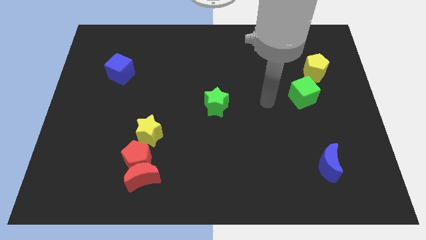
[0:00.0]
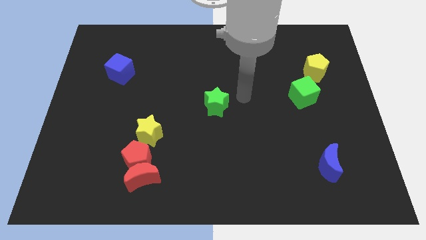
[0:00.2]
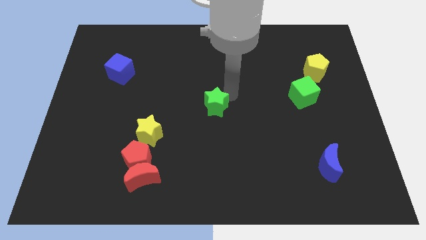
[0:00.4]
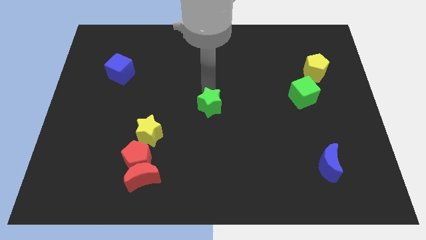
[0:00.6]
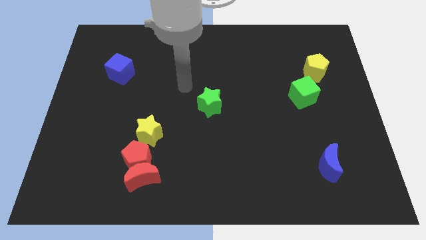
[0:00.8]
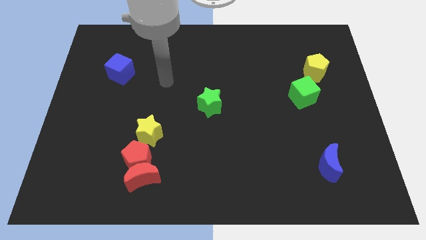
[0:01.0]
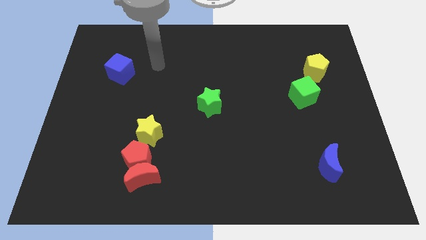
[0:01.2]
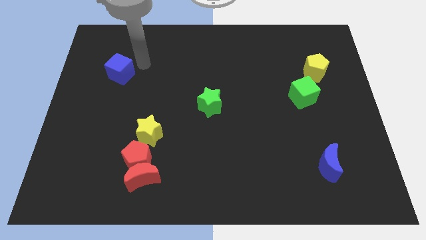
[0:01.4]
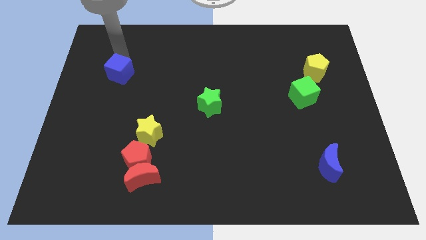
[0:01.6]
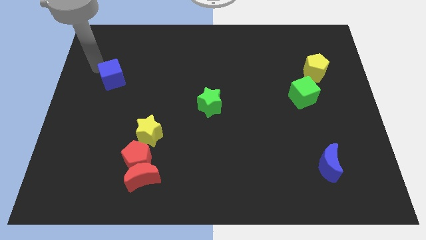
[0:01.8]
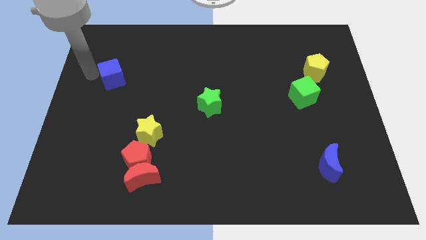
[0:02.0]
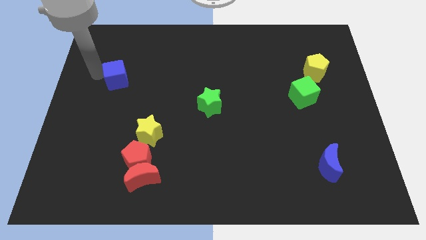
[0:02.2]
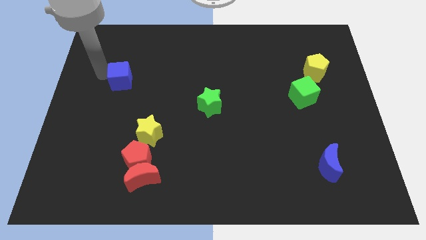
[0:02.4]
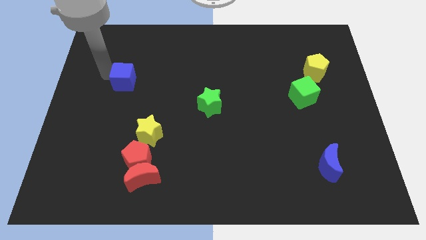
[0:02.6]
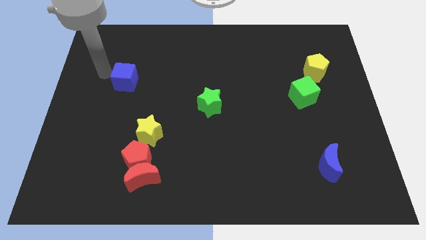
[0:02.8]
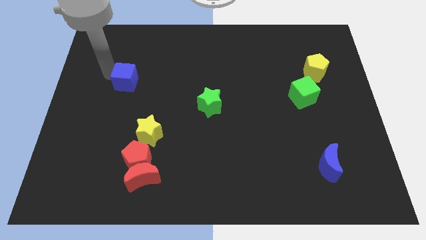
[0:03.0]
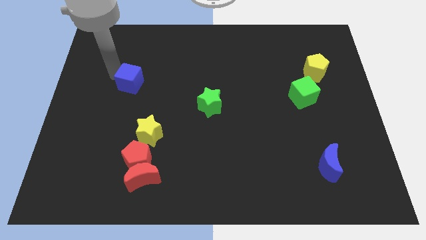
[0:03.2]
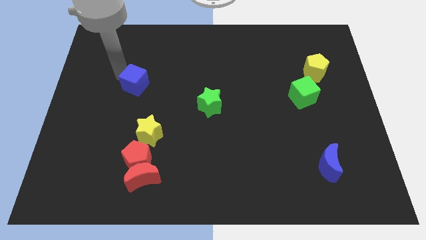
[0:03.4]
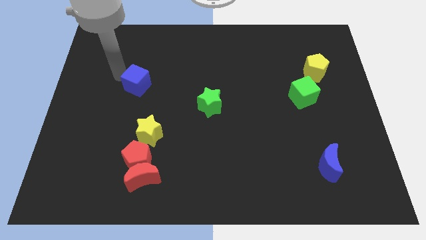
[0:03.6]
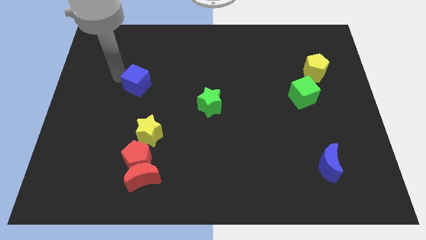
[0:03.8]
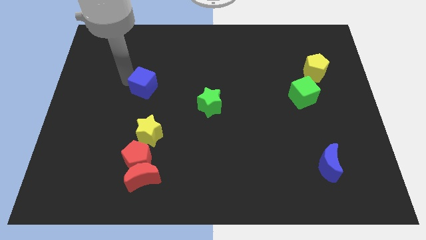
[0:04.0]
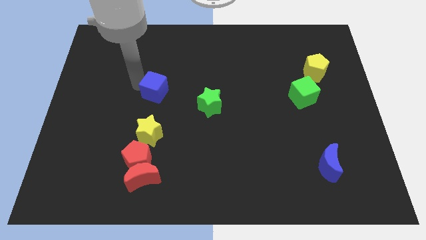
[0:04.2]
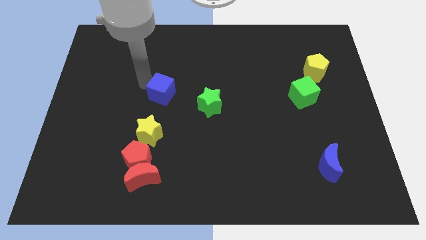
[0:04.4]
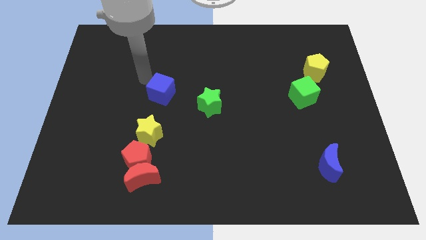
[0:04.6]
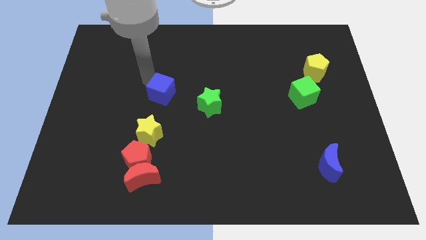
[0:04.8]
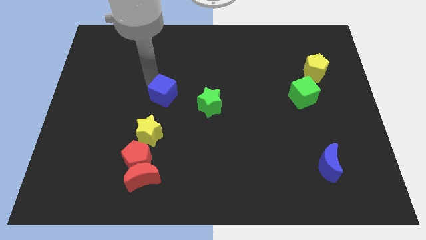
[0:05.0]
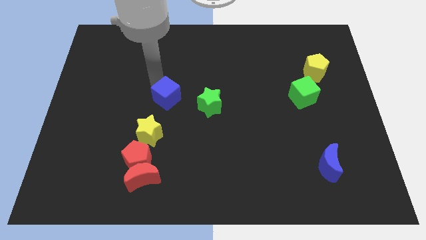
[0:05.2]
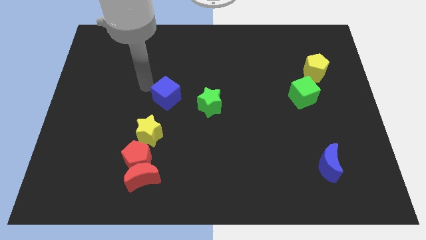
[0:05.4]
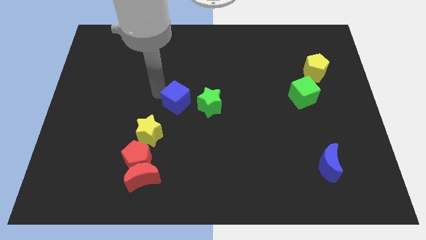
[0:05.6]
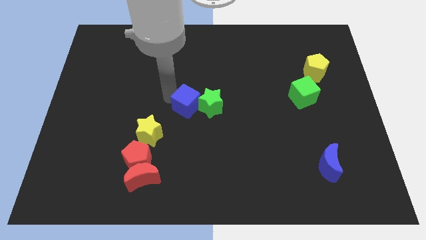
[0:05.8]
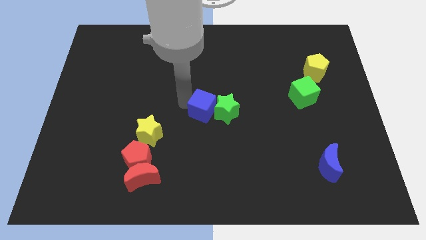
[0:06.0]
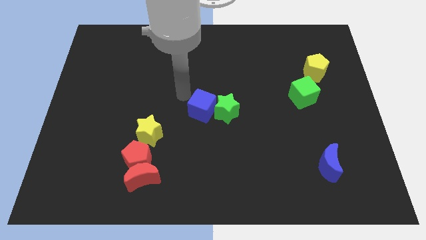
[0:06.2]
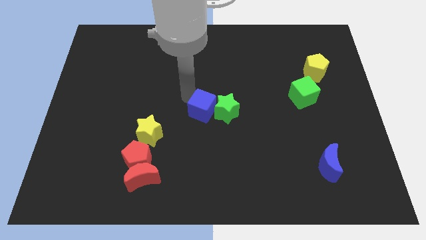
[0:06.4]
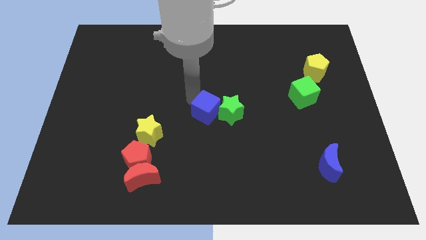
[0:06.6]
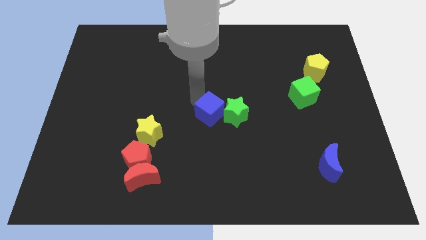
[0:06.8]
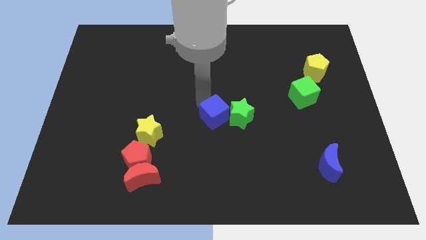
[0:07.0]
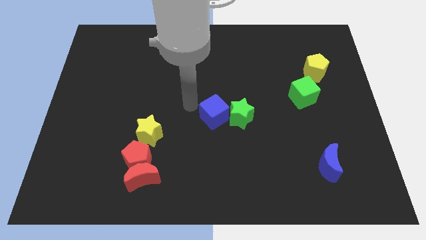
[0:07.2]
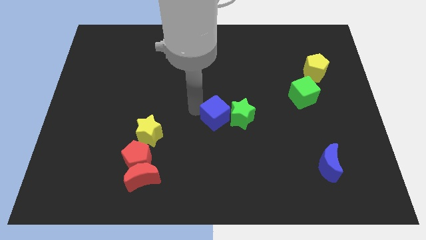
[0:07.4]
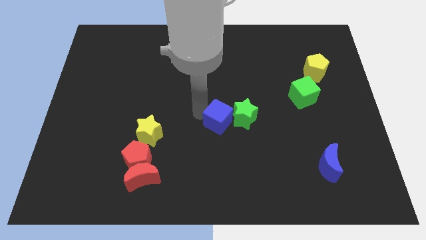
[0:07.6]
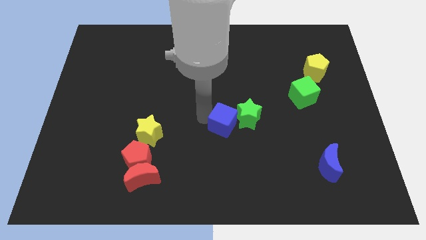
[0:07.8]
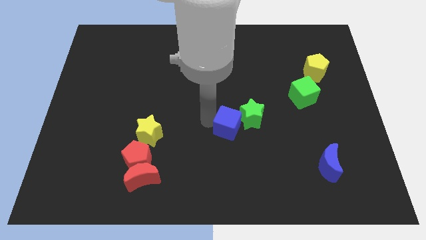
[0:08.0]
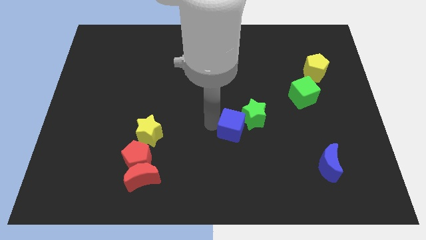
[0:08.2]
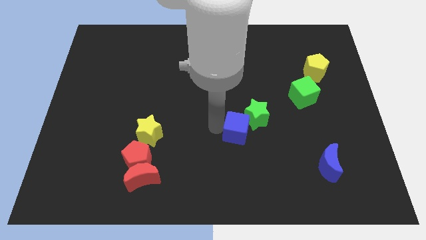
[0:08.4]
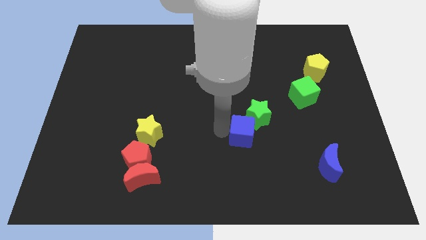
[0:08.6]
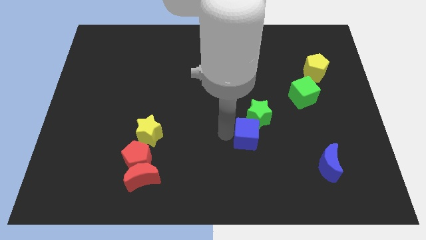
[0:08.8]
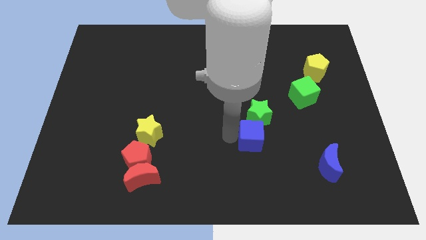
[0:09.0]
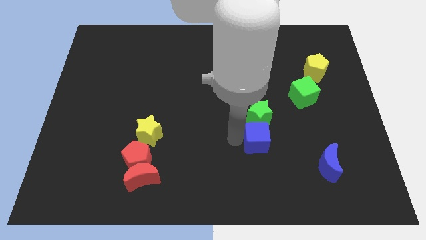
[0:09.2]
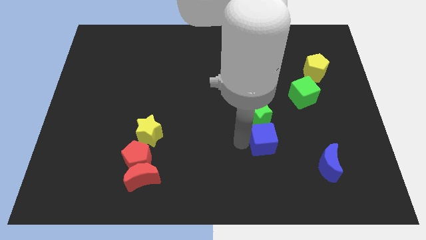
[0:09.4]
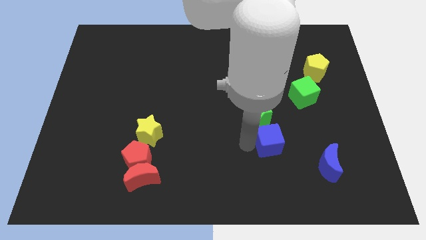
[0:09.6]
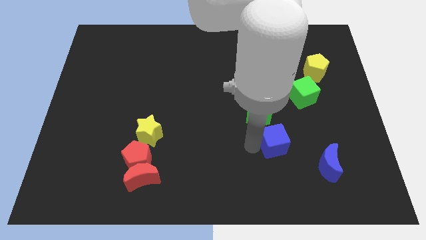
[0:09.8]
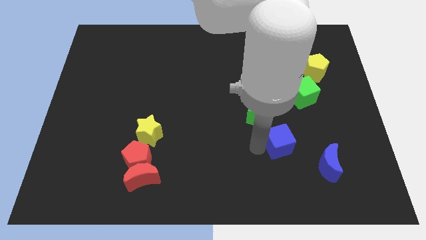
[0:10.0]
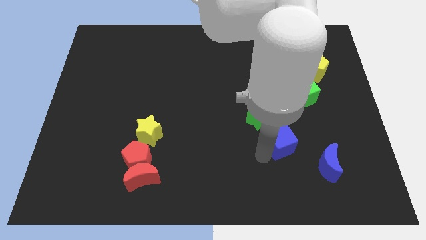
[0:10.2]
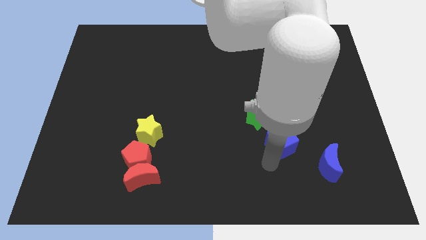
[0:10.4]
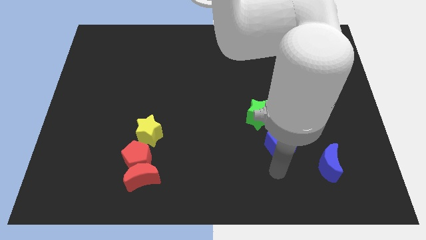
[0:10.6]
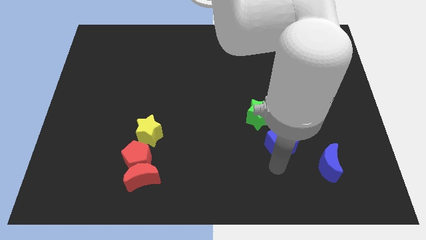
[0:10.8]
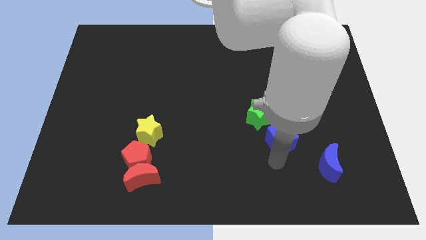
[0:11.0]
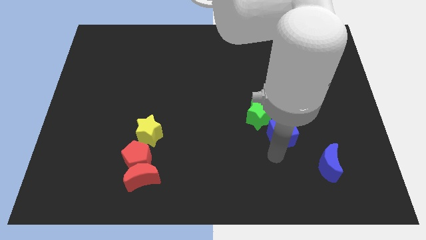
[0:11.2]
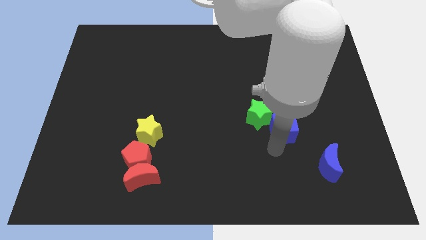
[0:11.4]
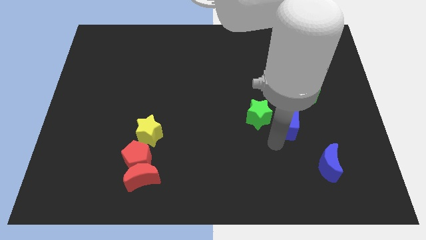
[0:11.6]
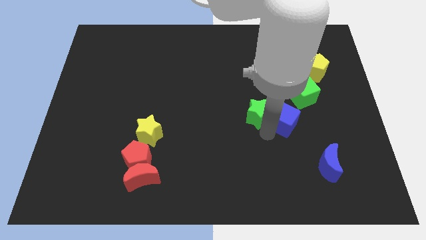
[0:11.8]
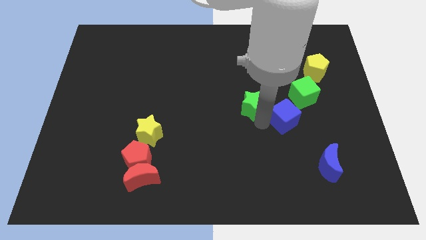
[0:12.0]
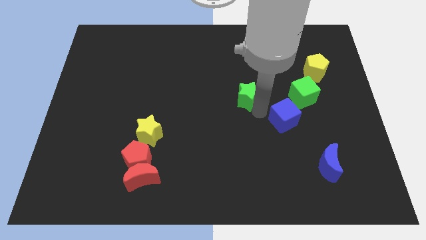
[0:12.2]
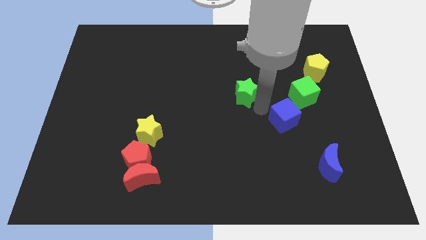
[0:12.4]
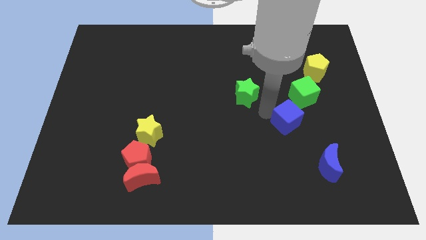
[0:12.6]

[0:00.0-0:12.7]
slide the blue cube to the bottom of the green cube

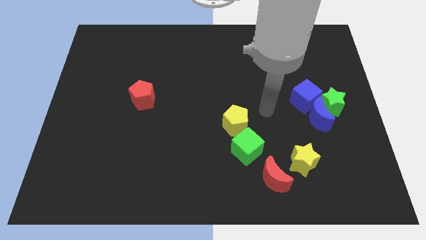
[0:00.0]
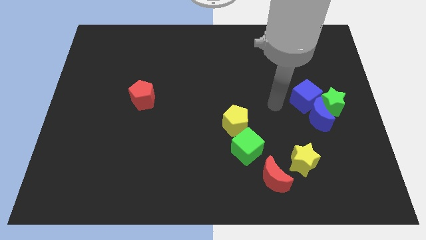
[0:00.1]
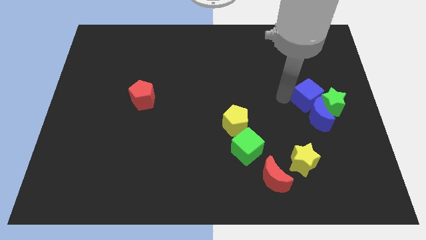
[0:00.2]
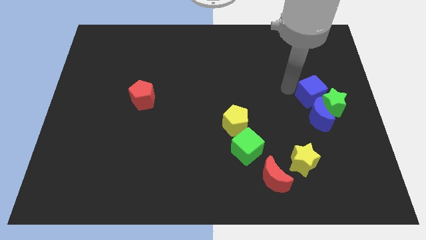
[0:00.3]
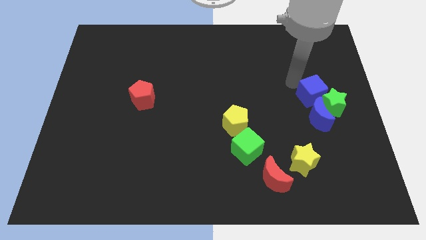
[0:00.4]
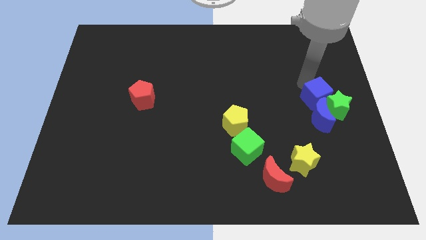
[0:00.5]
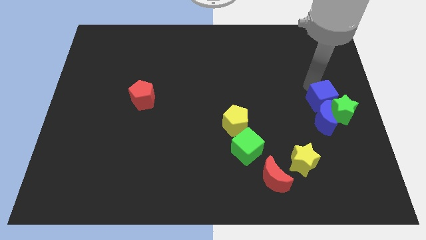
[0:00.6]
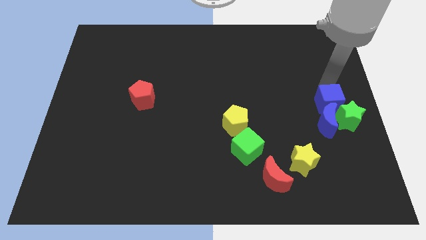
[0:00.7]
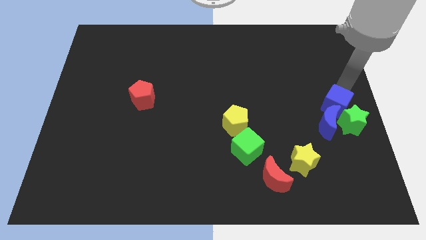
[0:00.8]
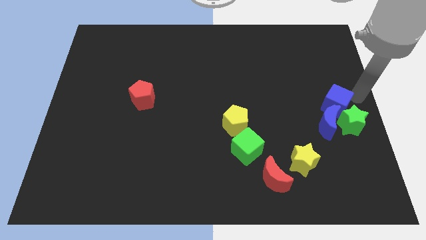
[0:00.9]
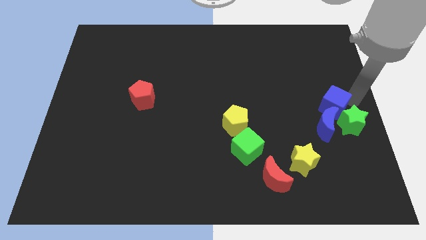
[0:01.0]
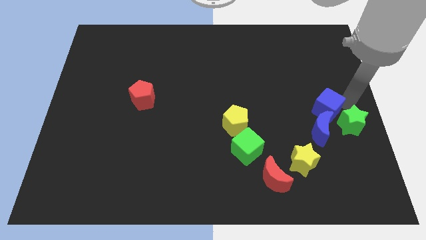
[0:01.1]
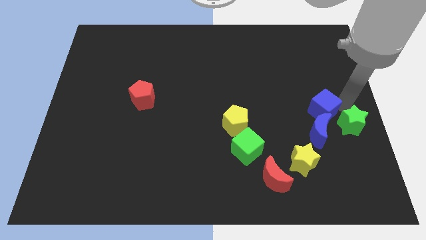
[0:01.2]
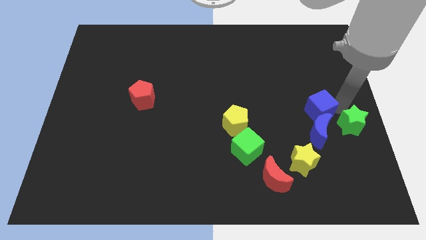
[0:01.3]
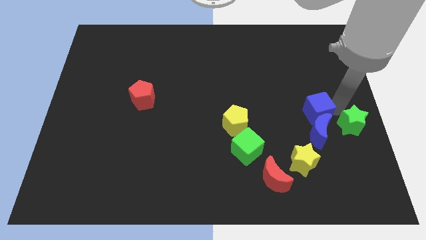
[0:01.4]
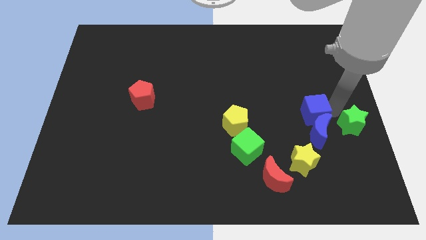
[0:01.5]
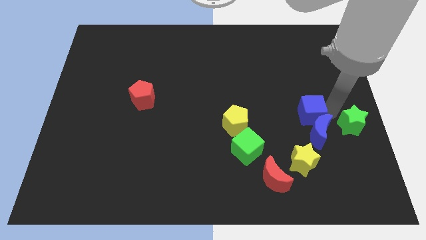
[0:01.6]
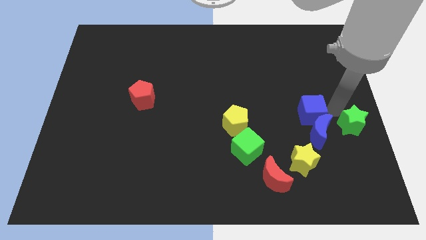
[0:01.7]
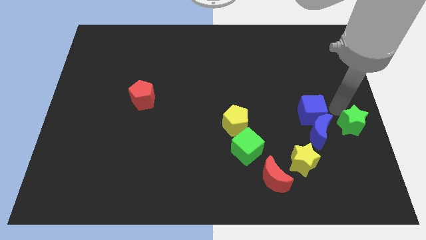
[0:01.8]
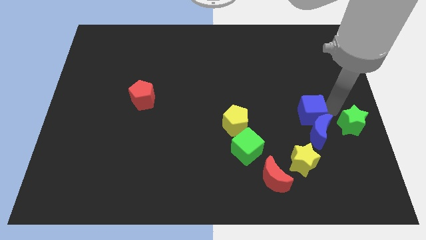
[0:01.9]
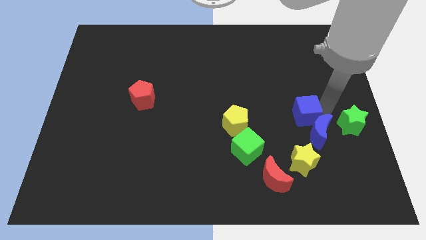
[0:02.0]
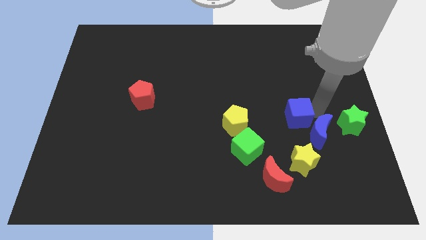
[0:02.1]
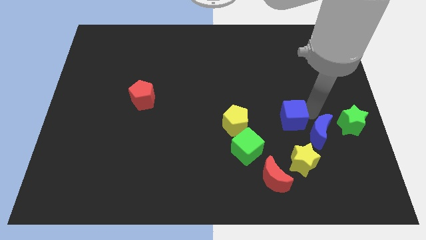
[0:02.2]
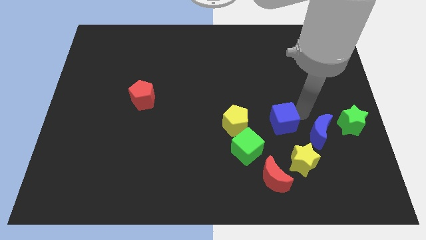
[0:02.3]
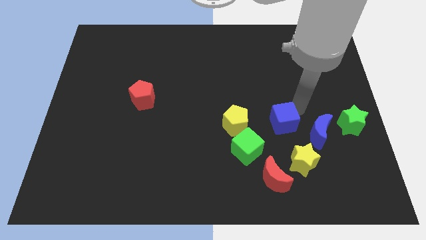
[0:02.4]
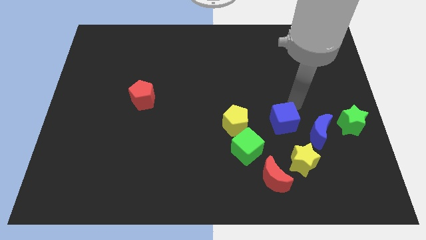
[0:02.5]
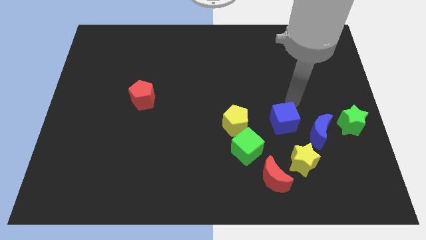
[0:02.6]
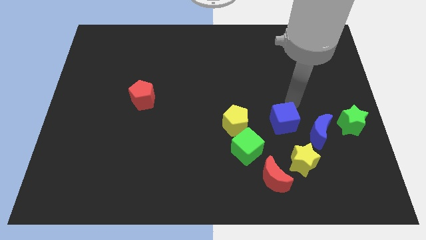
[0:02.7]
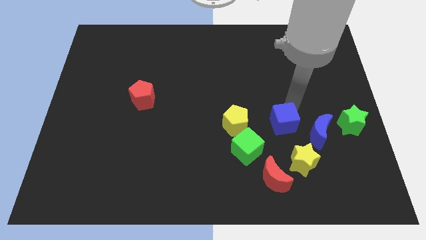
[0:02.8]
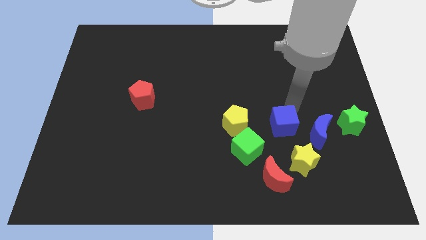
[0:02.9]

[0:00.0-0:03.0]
put the blue cube to the top left side of the yellow star
